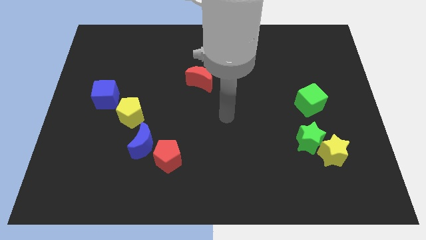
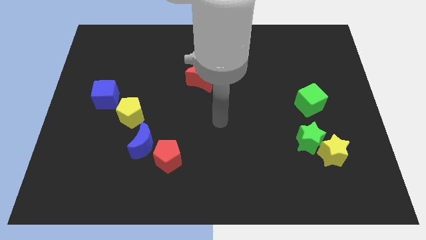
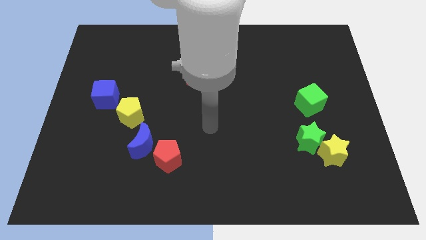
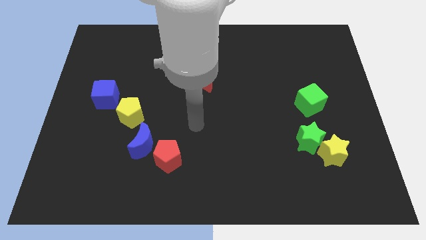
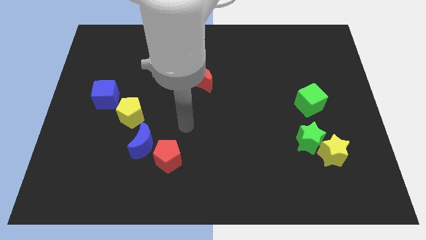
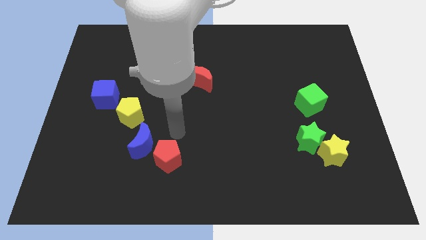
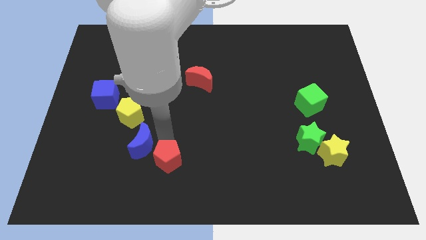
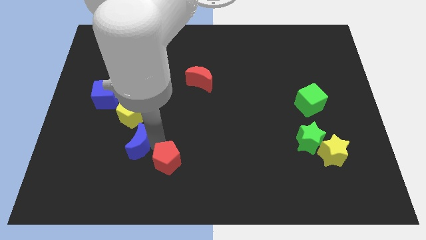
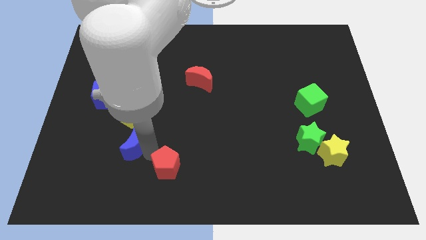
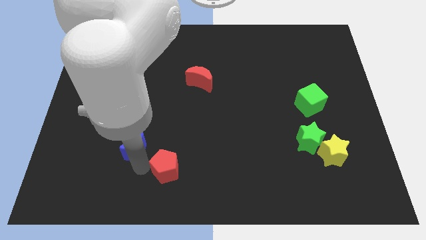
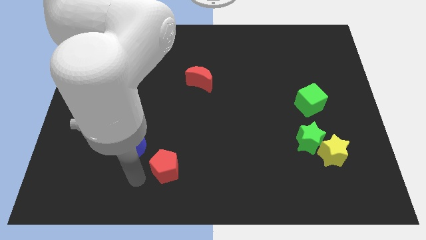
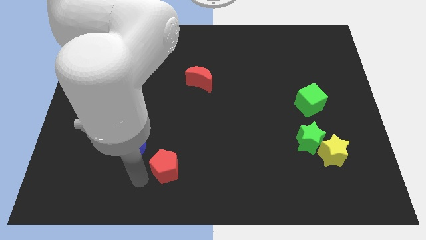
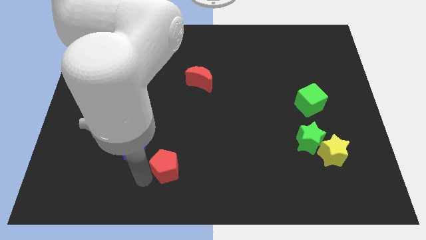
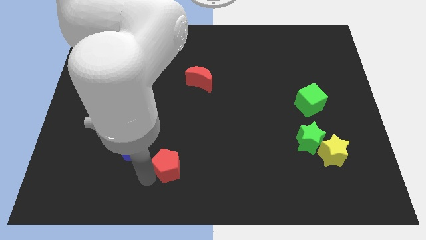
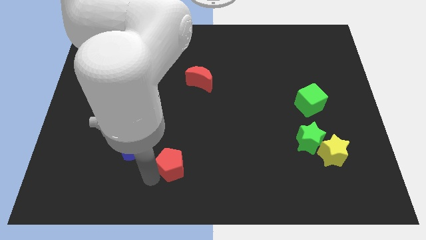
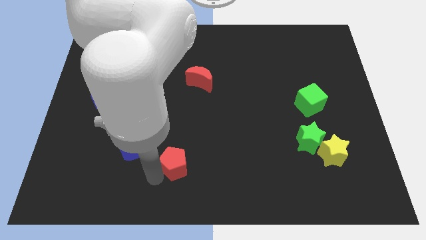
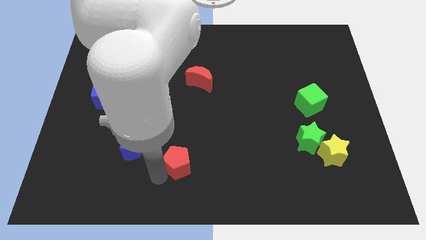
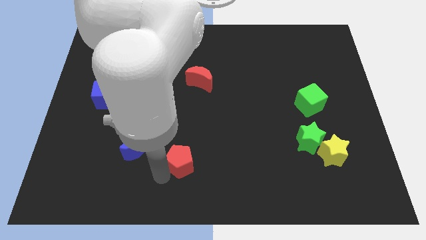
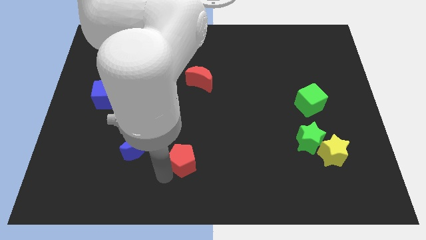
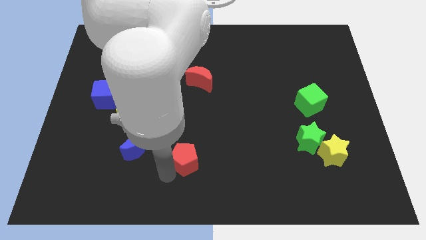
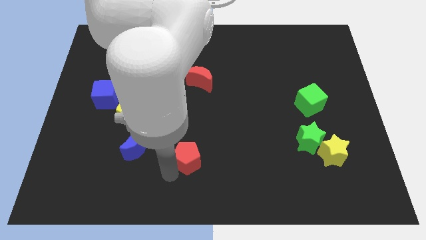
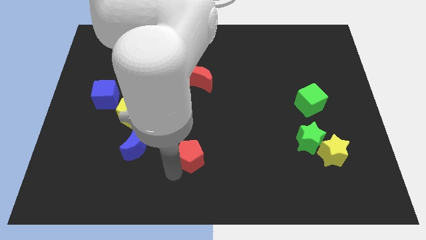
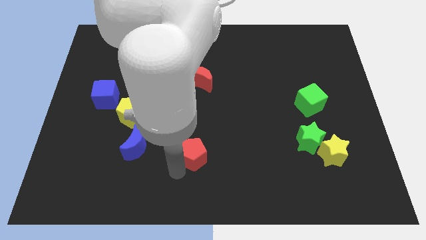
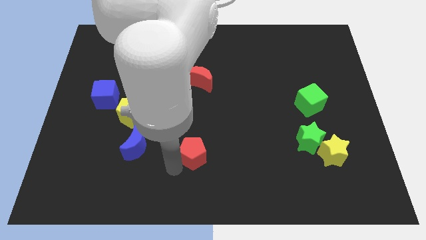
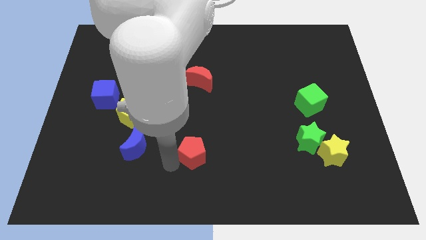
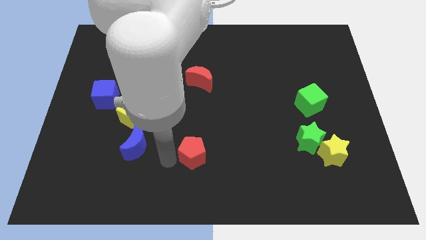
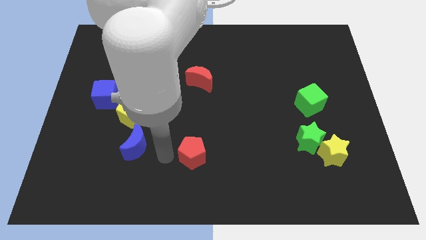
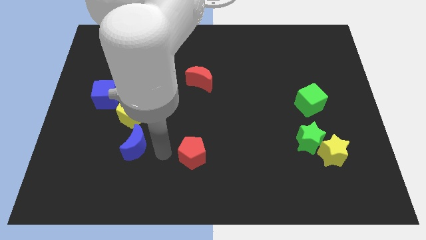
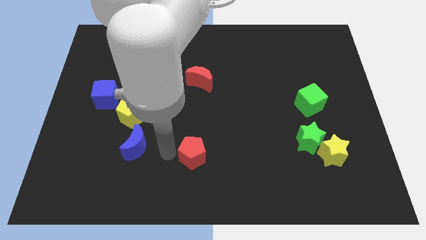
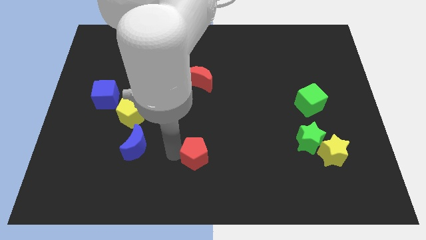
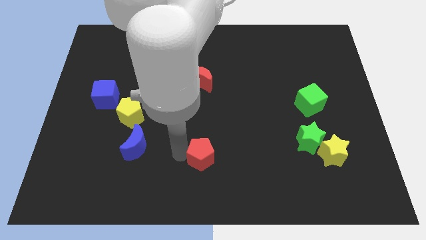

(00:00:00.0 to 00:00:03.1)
slightly move the red pentagon to the right

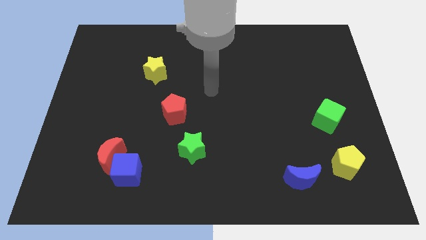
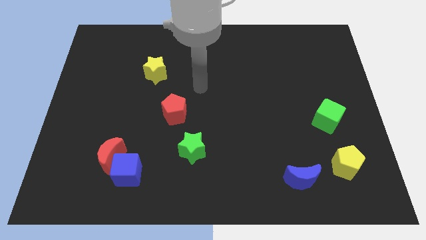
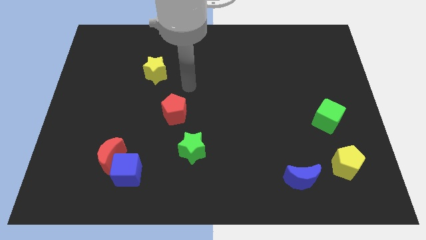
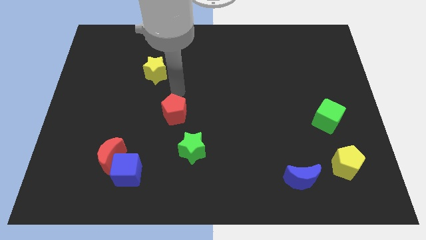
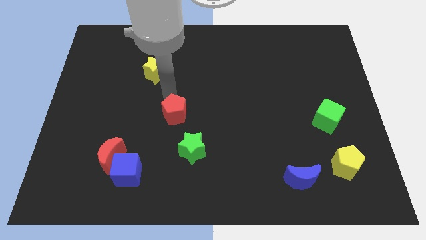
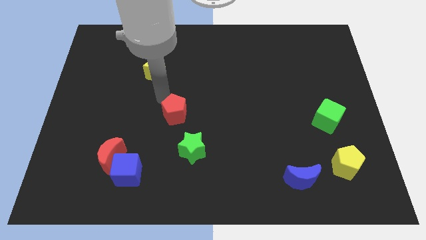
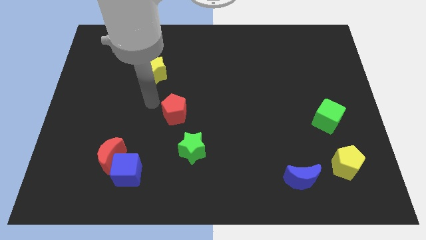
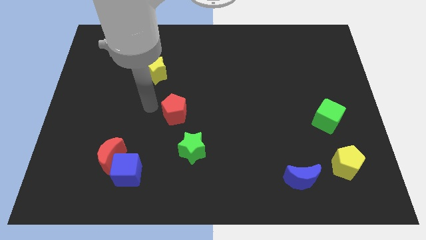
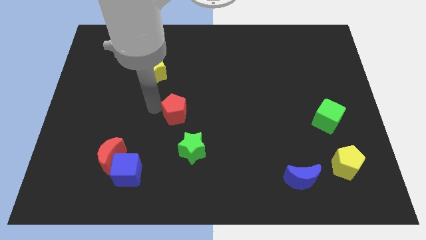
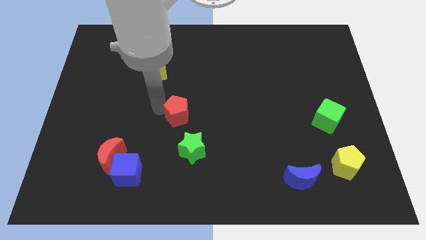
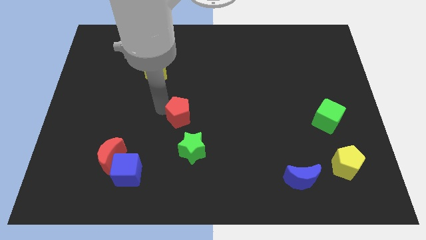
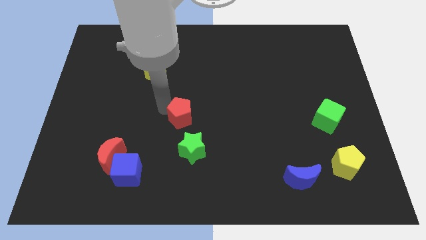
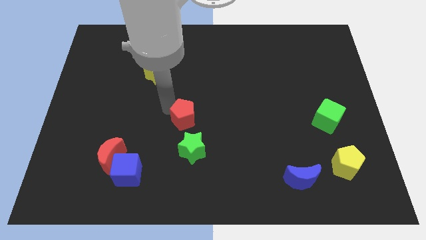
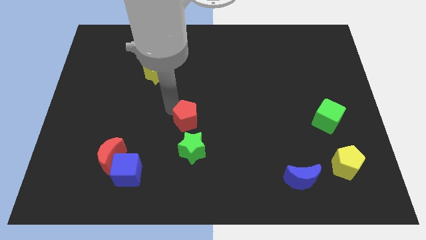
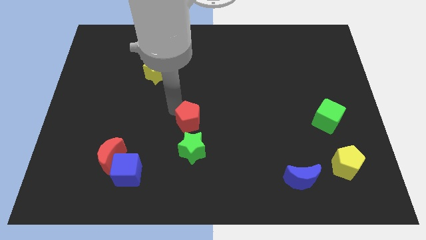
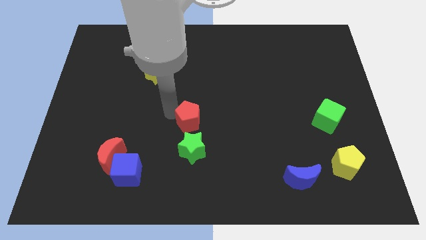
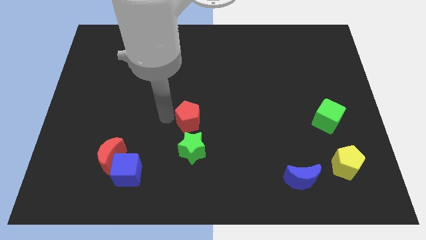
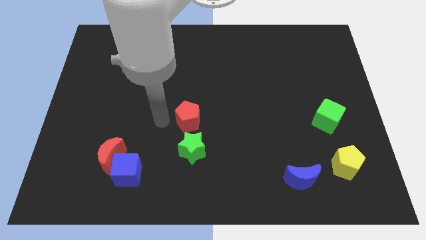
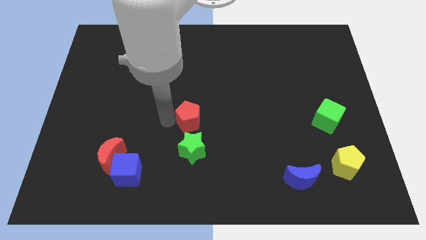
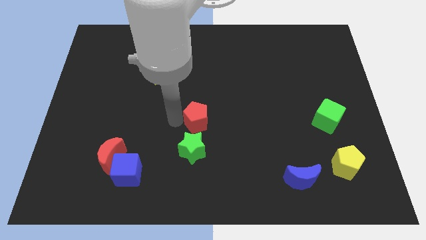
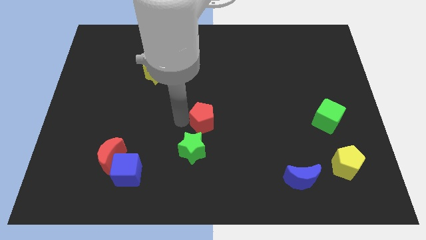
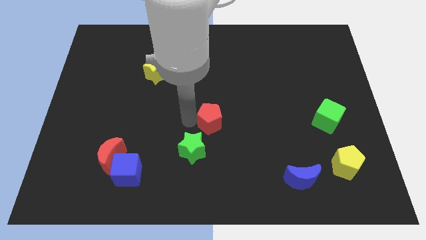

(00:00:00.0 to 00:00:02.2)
slightly slide the red pentagon right

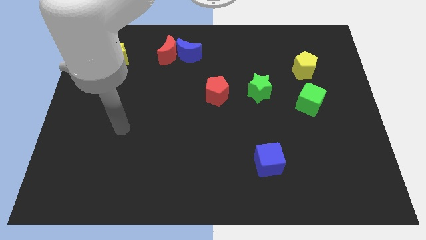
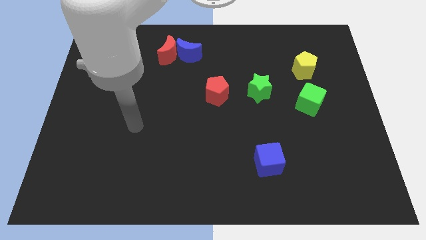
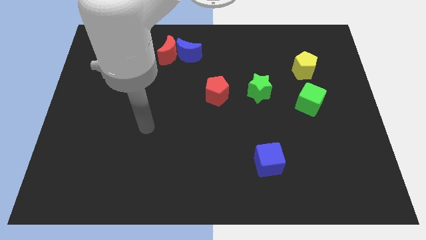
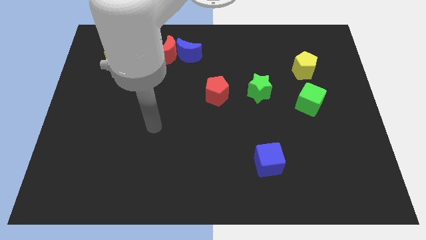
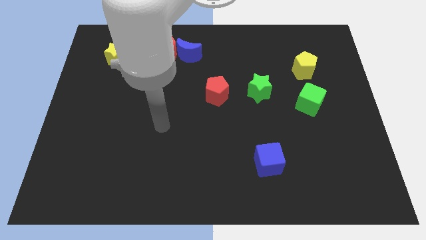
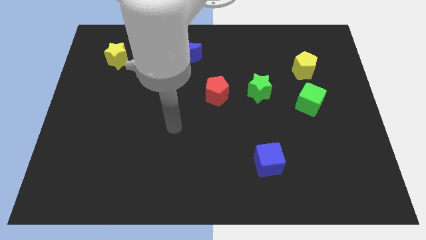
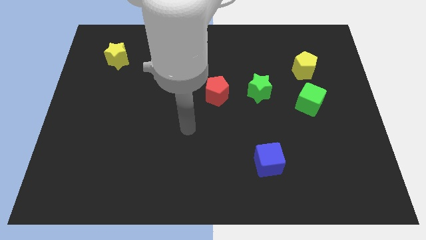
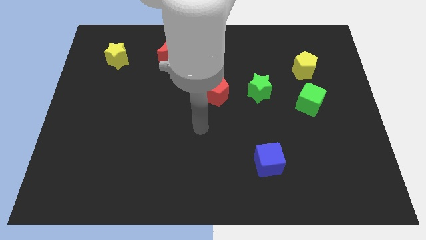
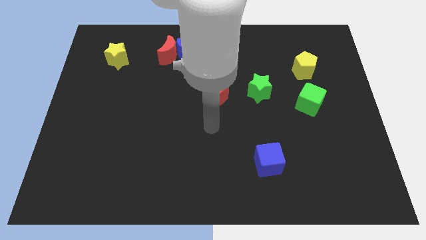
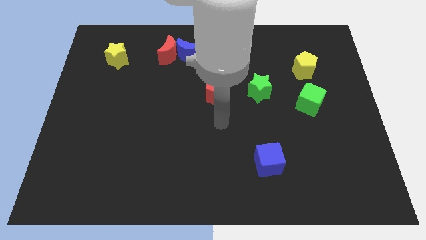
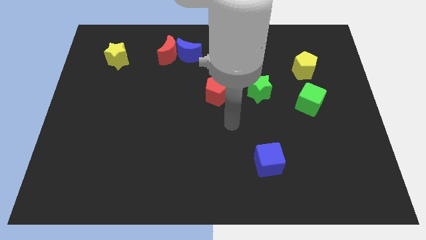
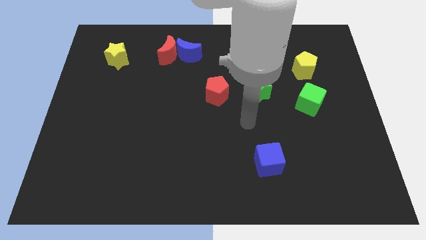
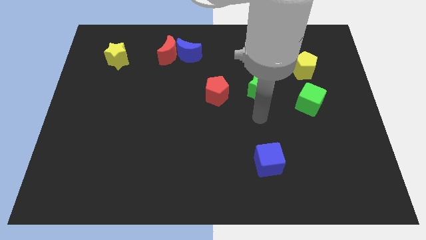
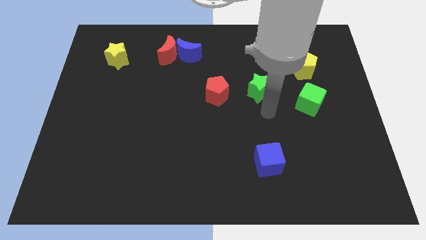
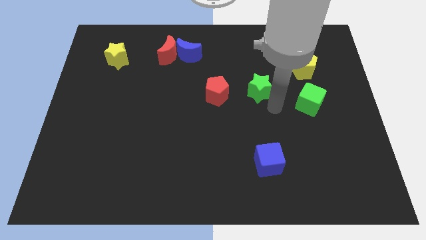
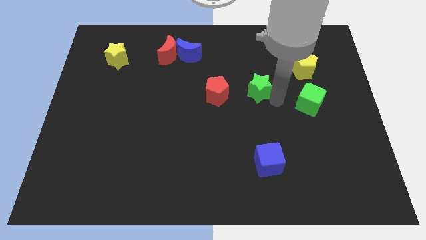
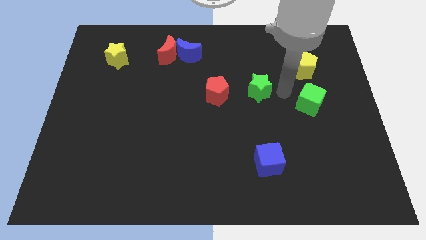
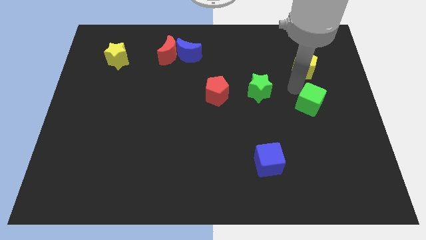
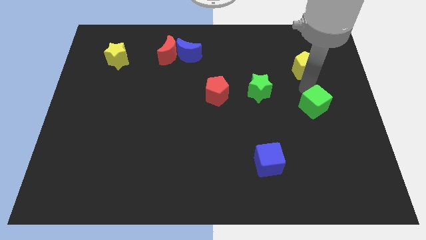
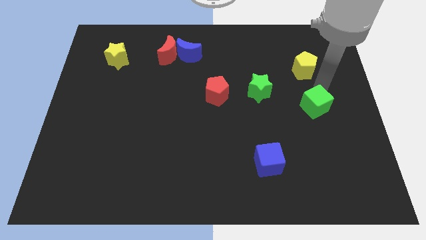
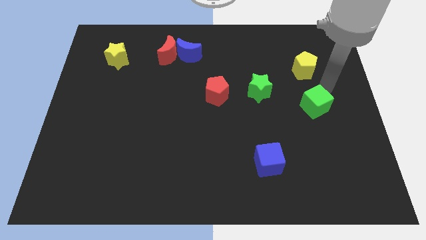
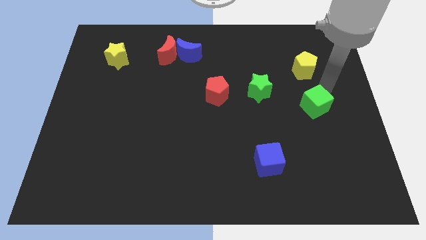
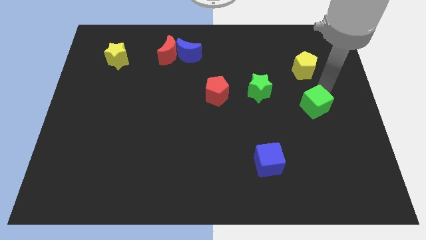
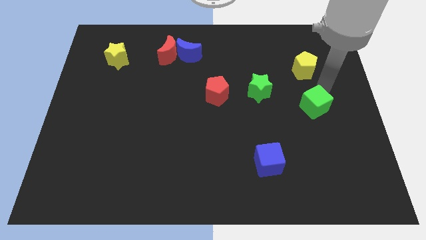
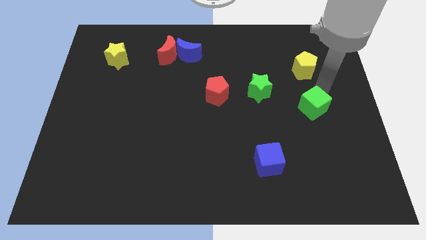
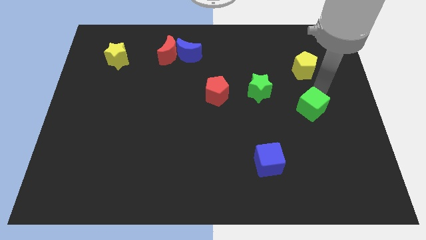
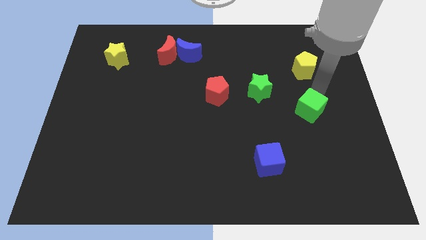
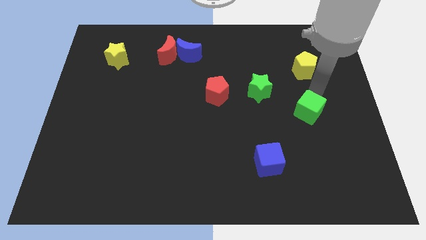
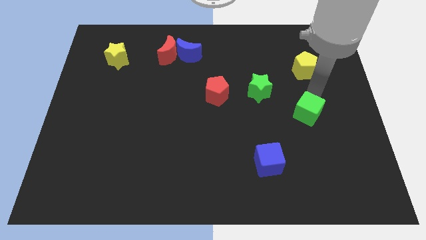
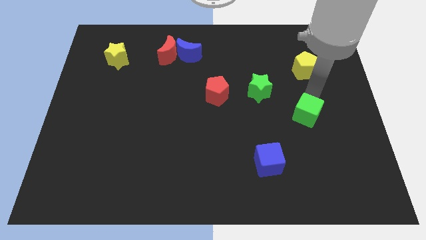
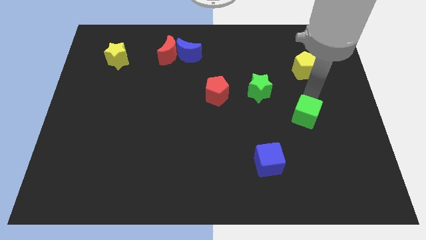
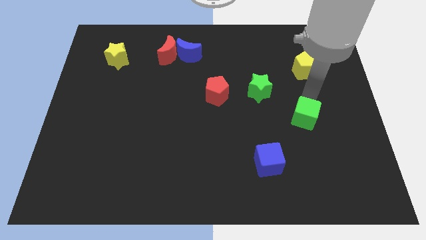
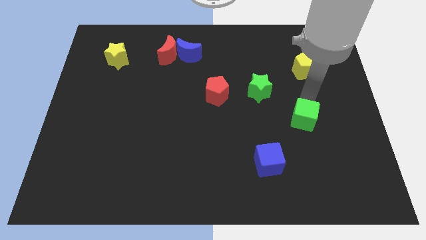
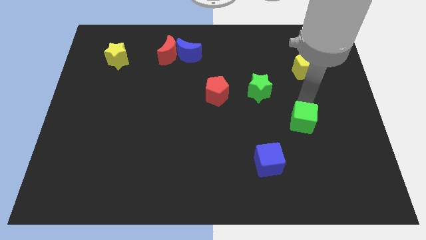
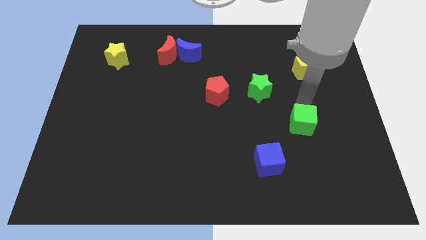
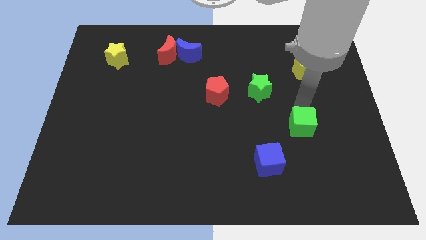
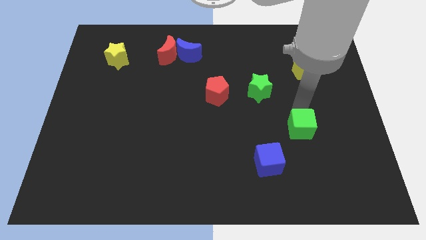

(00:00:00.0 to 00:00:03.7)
slightly move the green cube down
